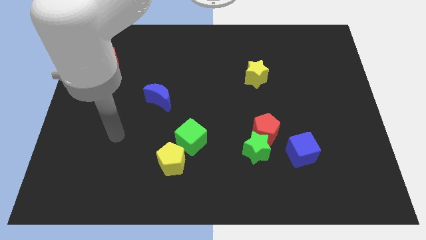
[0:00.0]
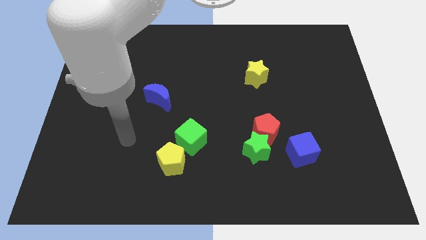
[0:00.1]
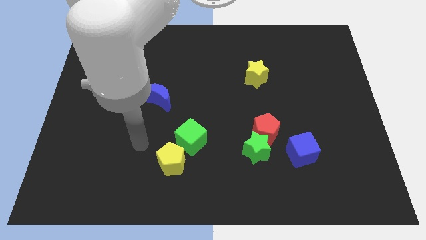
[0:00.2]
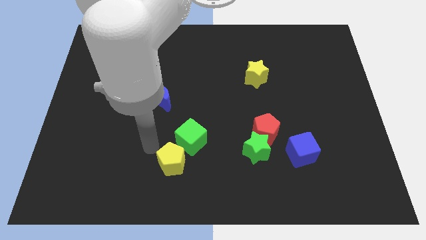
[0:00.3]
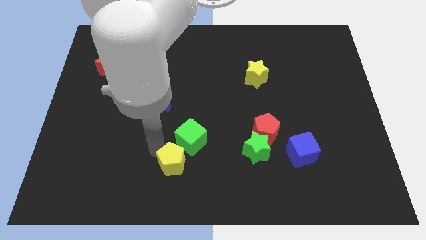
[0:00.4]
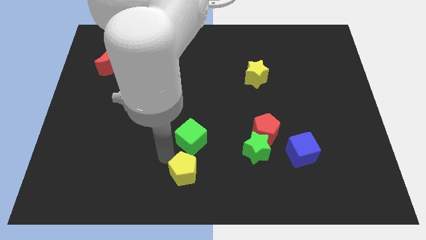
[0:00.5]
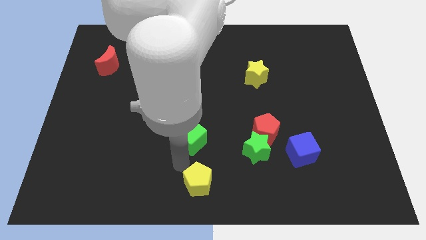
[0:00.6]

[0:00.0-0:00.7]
pull the green cube apart from the yellow pentagon

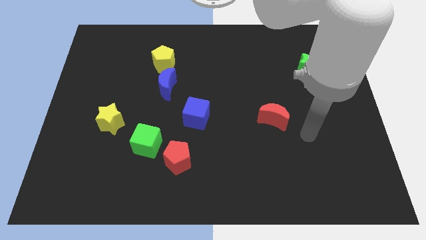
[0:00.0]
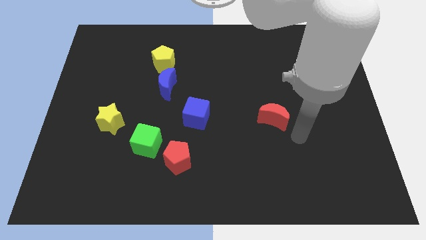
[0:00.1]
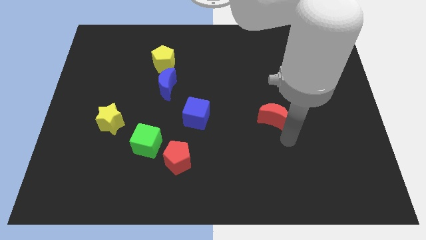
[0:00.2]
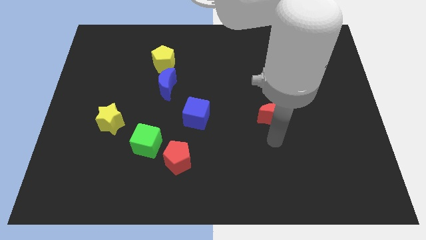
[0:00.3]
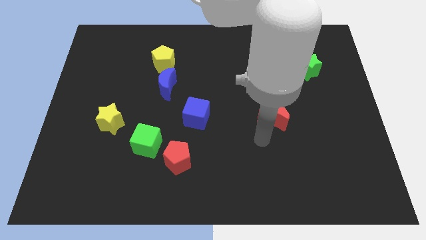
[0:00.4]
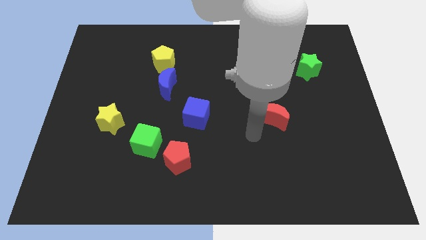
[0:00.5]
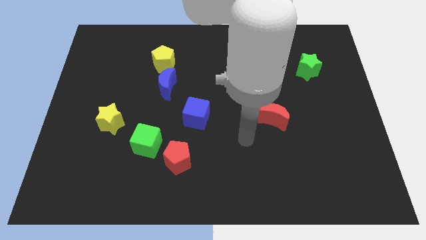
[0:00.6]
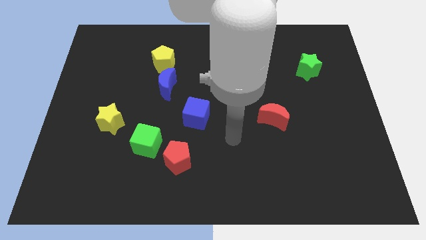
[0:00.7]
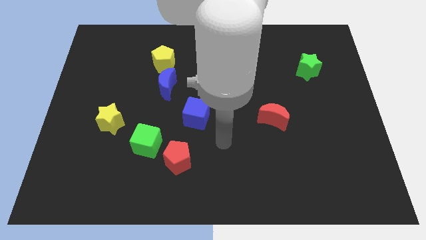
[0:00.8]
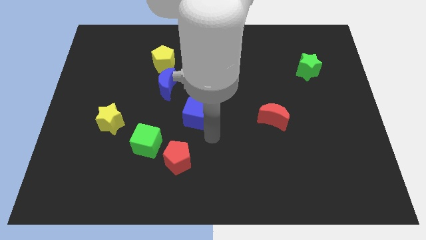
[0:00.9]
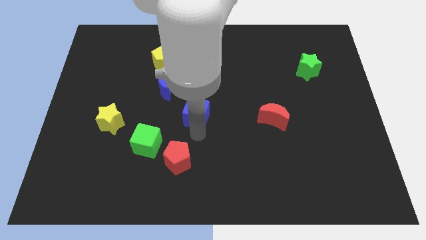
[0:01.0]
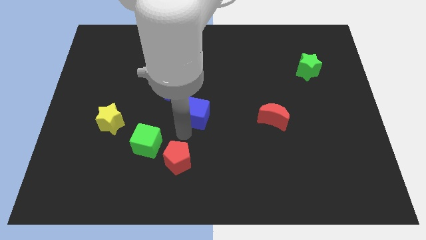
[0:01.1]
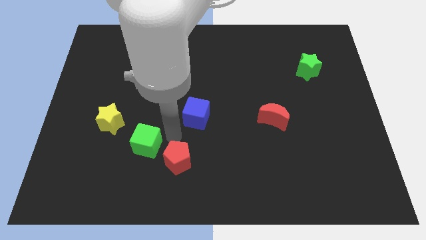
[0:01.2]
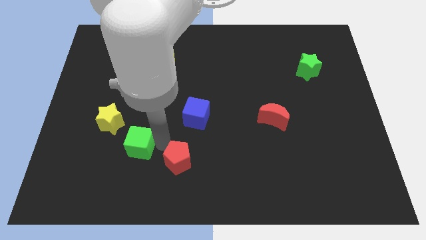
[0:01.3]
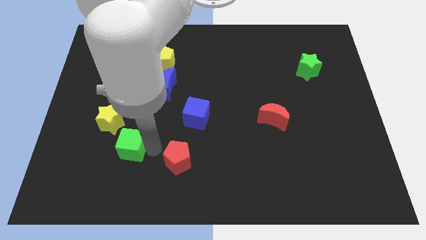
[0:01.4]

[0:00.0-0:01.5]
move the red pentagon away from the green cube

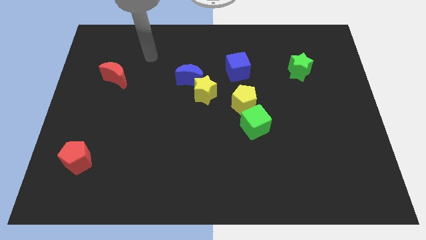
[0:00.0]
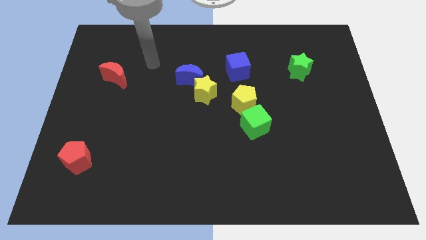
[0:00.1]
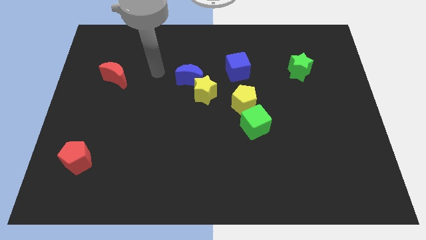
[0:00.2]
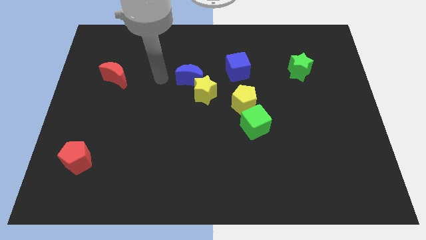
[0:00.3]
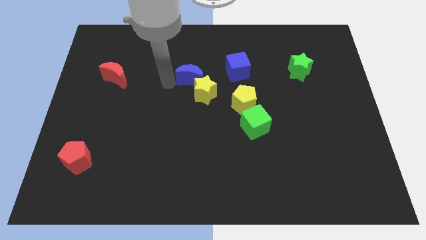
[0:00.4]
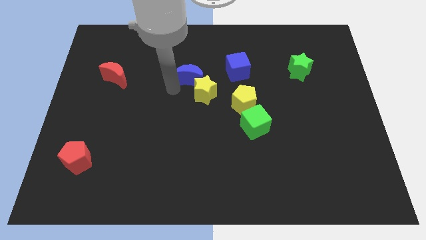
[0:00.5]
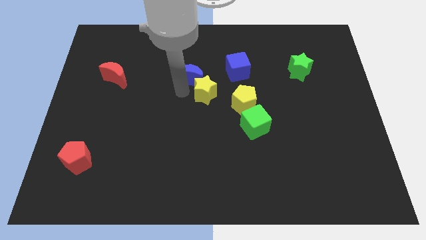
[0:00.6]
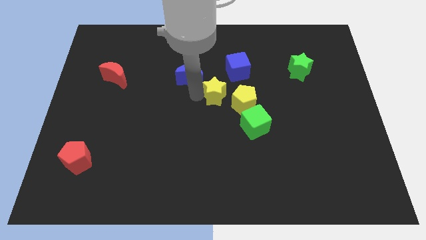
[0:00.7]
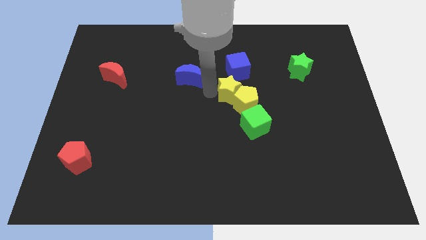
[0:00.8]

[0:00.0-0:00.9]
move the blue moon away from the yellow star

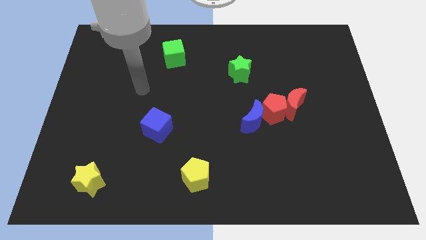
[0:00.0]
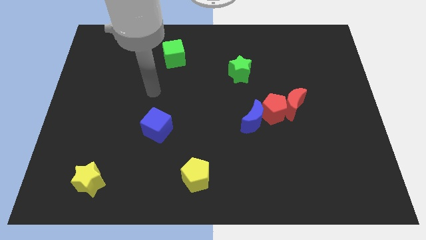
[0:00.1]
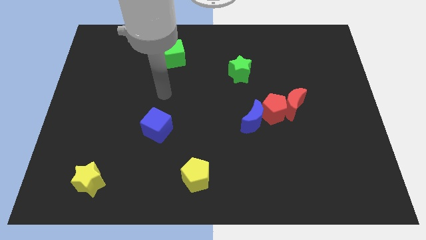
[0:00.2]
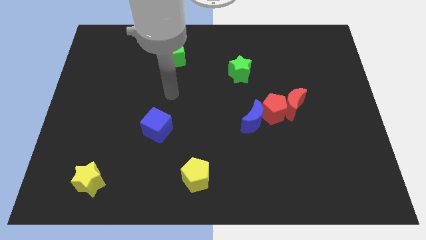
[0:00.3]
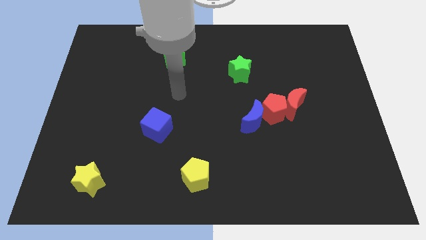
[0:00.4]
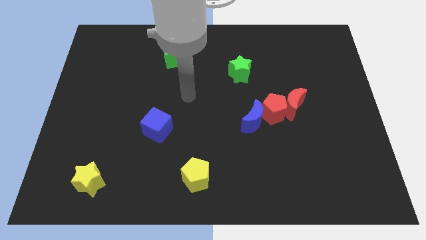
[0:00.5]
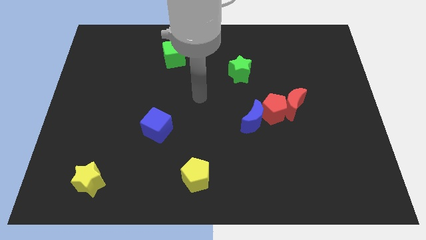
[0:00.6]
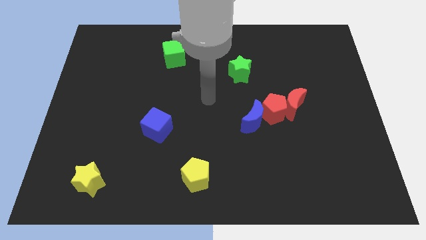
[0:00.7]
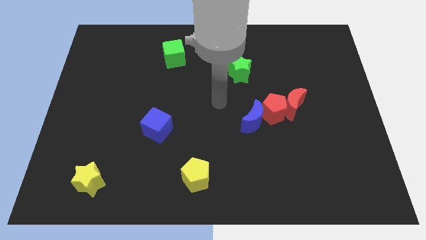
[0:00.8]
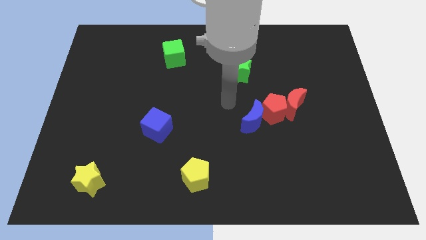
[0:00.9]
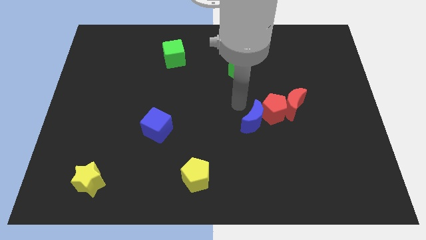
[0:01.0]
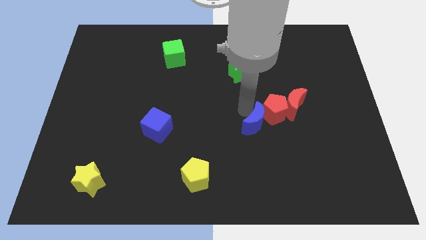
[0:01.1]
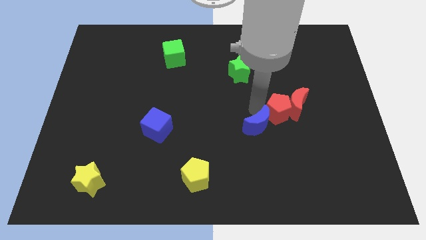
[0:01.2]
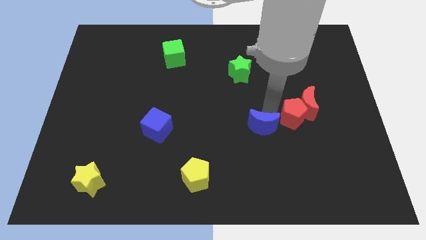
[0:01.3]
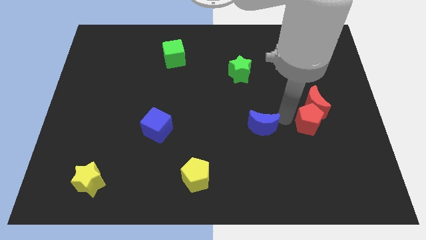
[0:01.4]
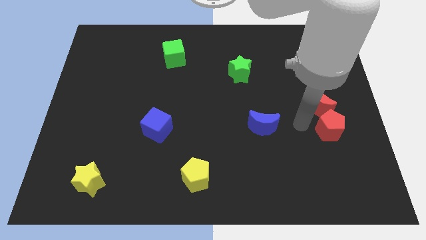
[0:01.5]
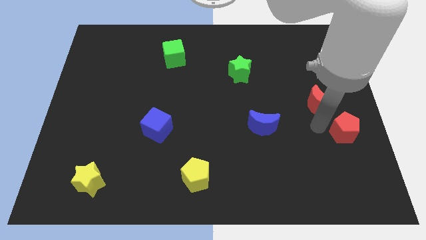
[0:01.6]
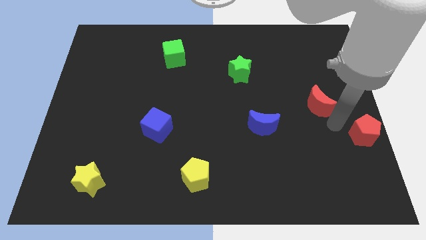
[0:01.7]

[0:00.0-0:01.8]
move the red moon away from the red pentagon

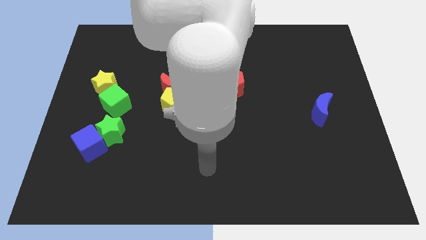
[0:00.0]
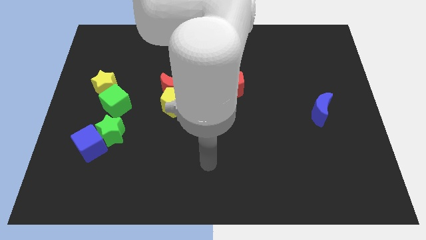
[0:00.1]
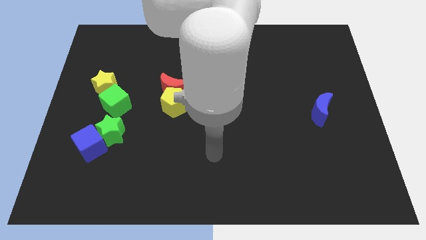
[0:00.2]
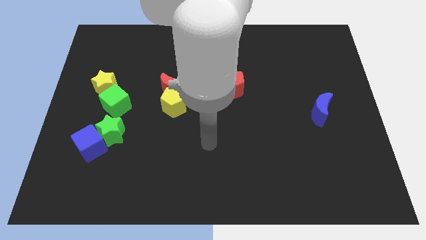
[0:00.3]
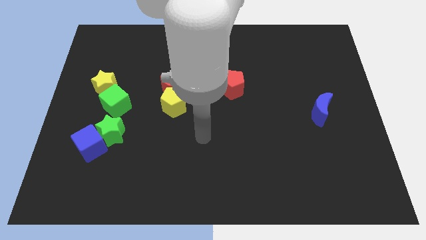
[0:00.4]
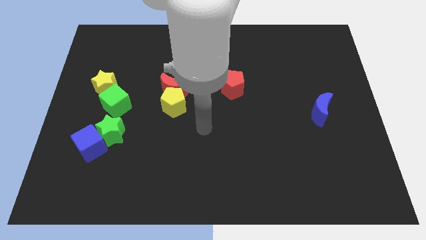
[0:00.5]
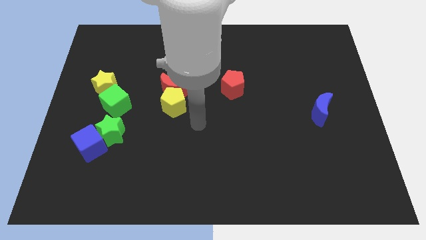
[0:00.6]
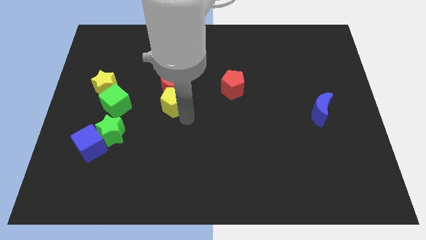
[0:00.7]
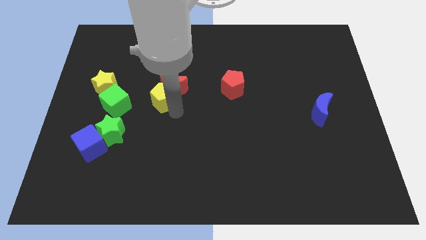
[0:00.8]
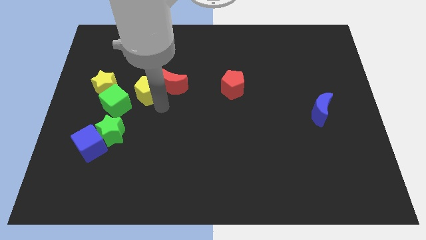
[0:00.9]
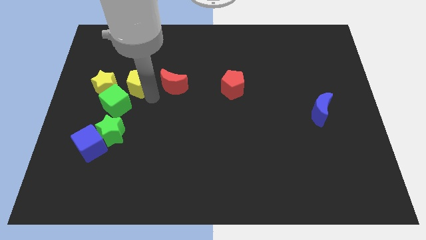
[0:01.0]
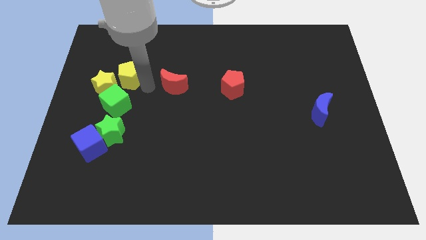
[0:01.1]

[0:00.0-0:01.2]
pull the red moon apart from the yellow pentagon

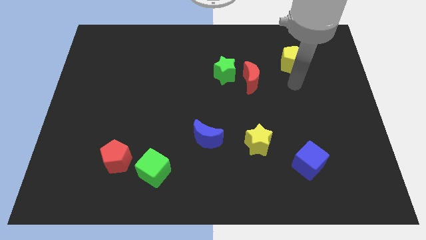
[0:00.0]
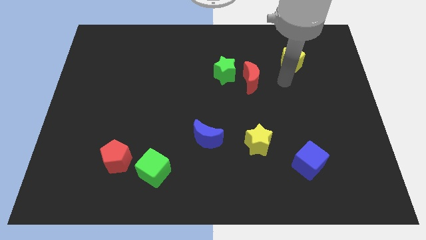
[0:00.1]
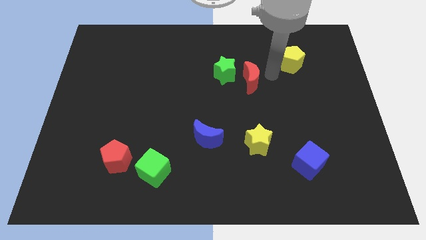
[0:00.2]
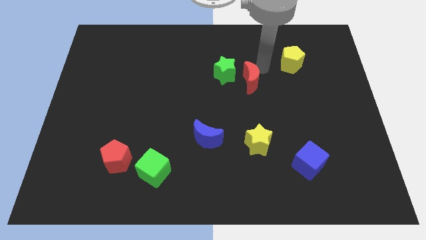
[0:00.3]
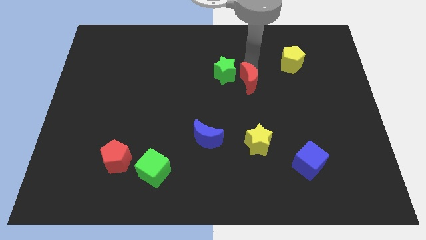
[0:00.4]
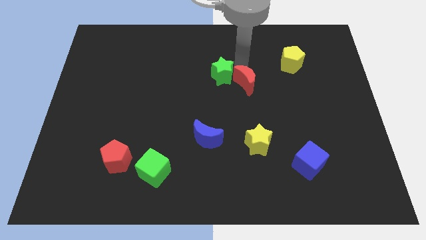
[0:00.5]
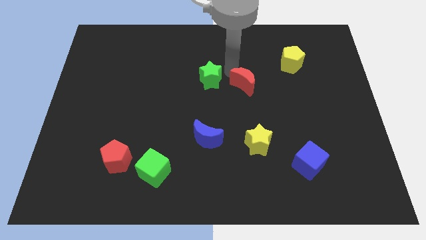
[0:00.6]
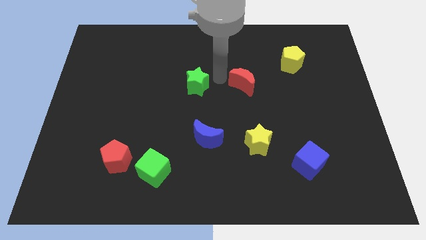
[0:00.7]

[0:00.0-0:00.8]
separate the red moon from the green star
